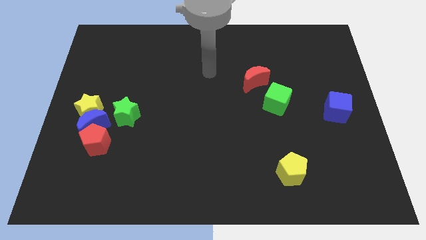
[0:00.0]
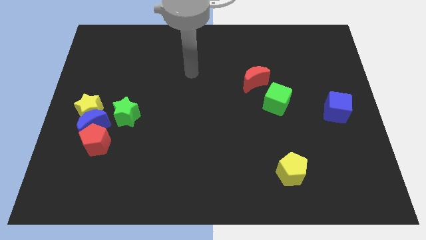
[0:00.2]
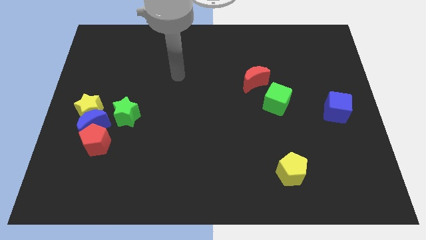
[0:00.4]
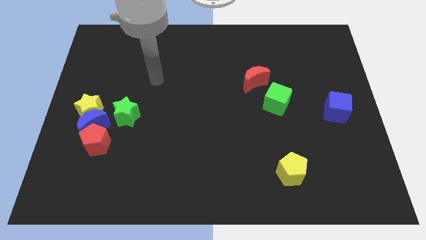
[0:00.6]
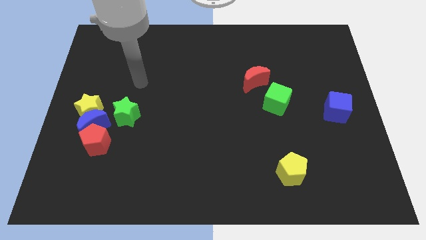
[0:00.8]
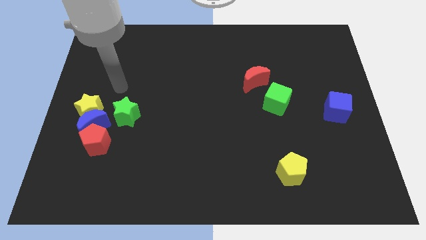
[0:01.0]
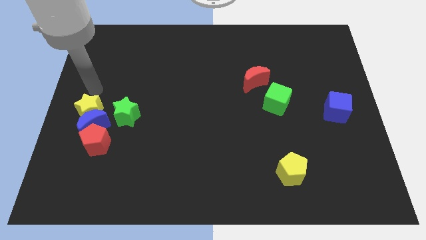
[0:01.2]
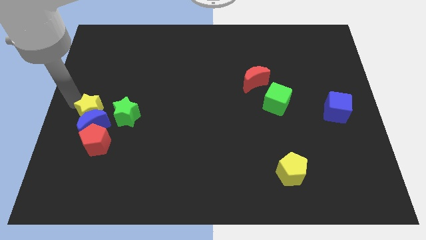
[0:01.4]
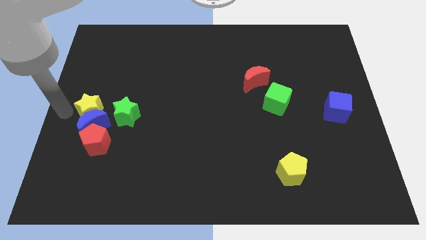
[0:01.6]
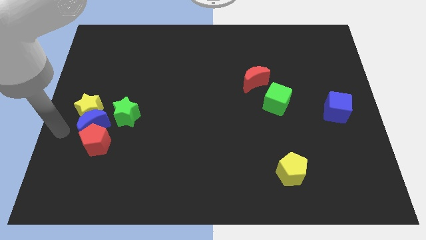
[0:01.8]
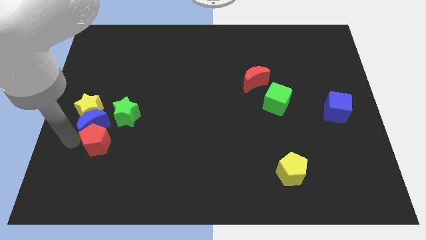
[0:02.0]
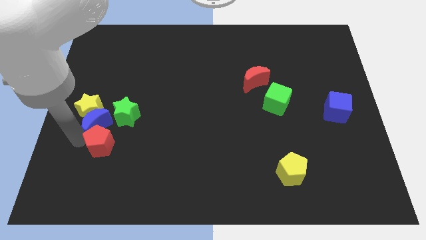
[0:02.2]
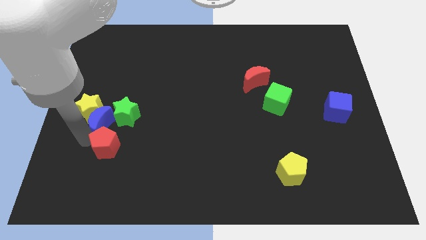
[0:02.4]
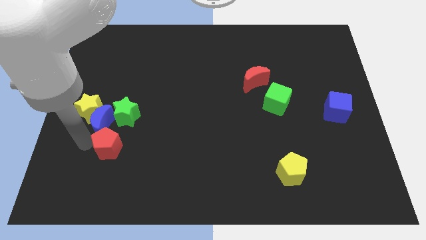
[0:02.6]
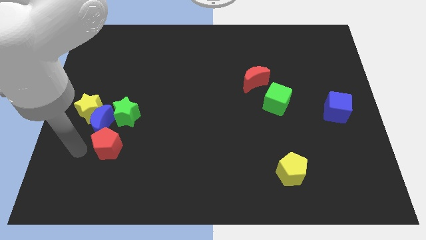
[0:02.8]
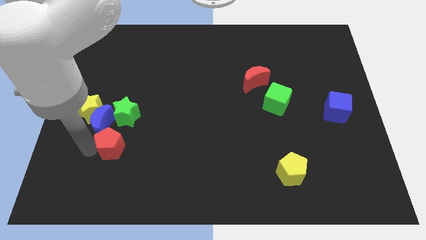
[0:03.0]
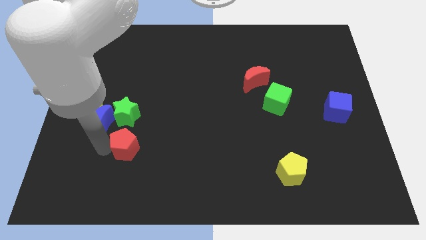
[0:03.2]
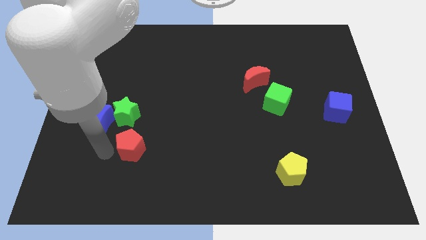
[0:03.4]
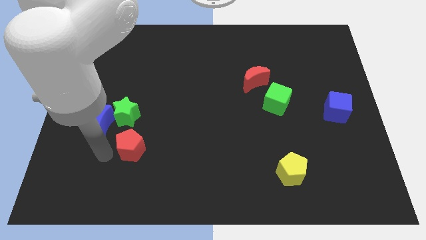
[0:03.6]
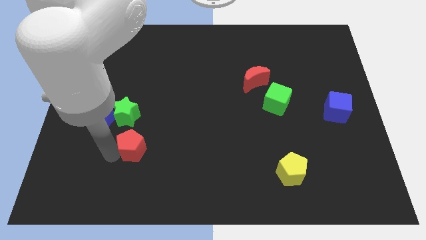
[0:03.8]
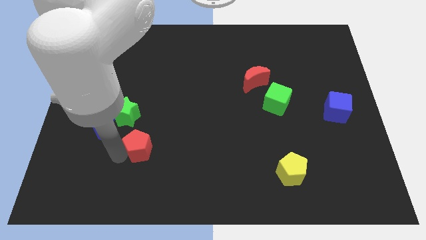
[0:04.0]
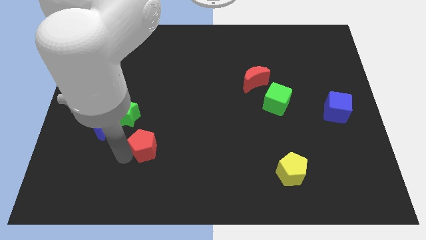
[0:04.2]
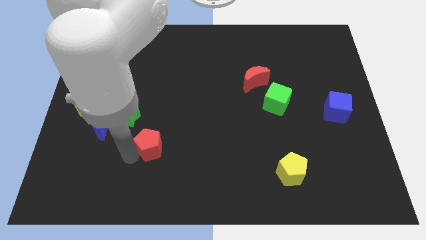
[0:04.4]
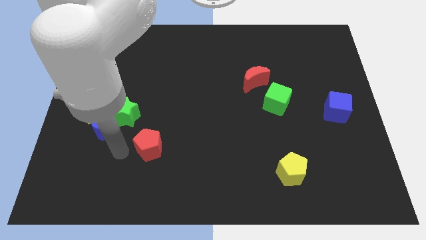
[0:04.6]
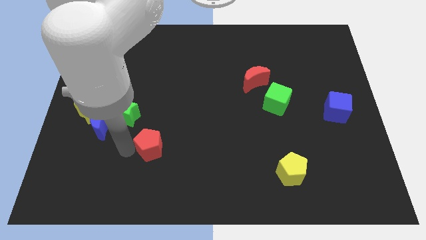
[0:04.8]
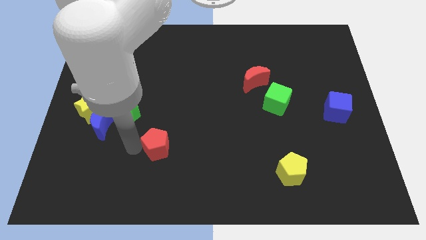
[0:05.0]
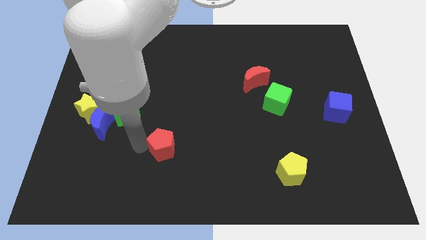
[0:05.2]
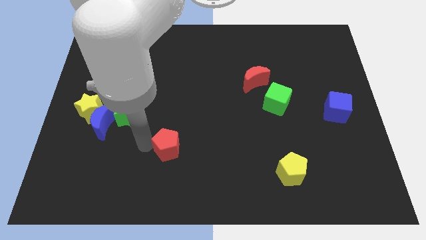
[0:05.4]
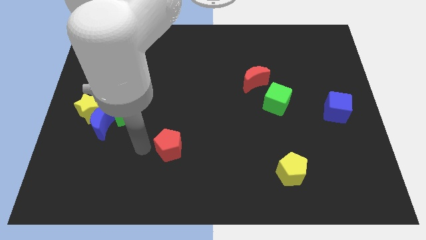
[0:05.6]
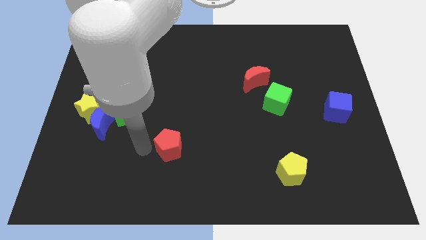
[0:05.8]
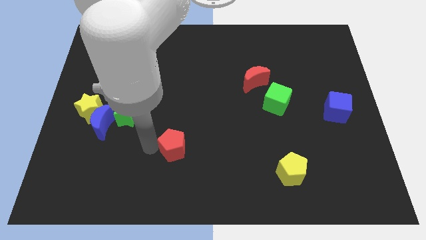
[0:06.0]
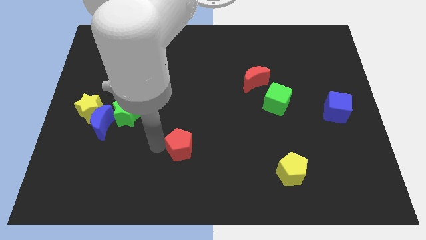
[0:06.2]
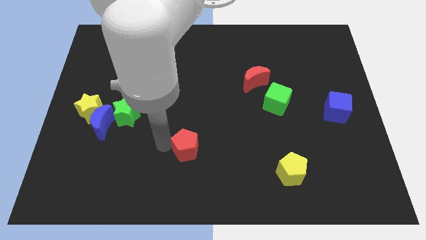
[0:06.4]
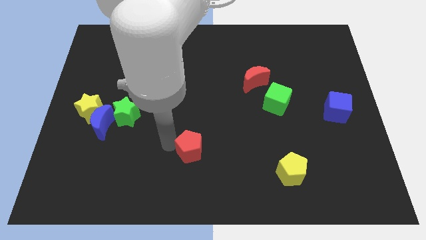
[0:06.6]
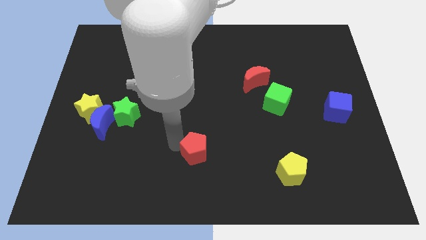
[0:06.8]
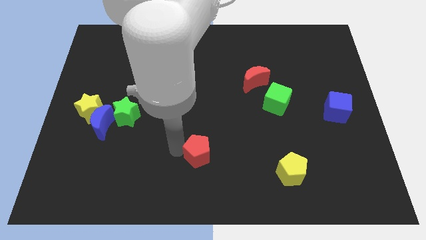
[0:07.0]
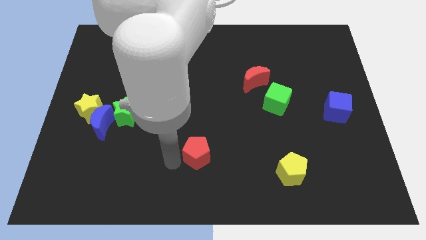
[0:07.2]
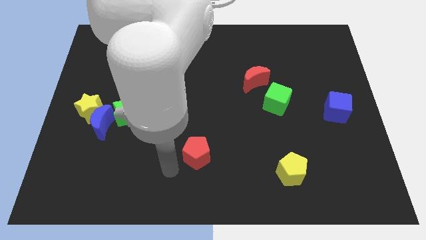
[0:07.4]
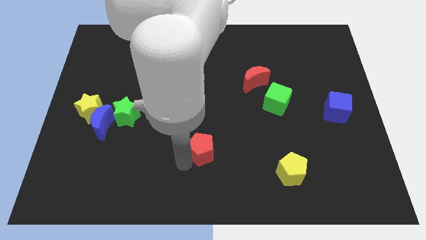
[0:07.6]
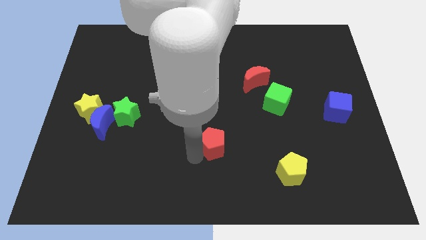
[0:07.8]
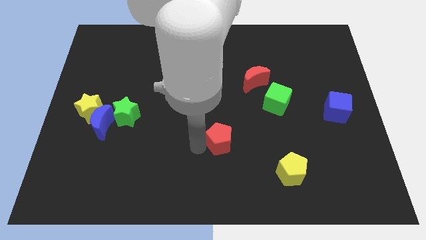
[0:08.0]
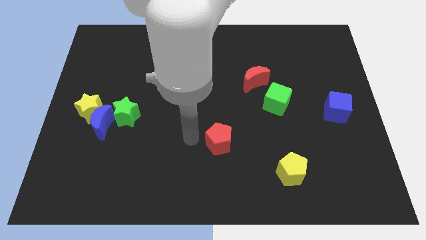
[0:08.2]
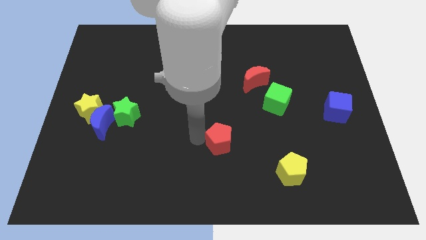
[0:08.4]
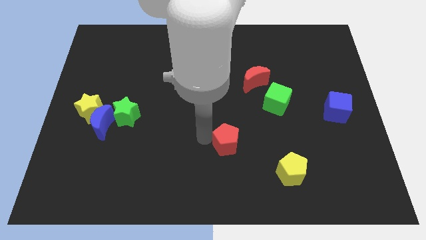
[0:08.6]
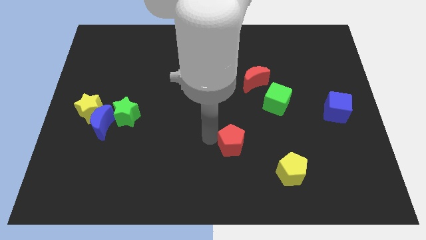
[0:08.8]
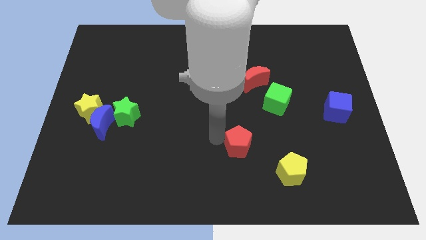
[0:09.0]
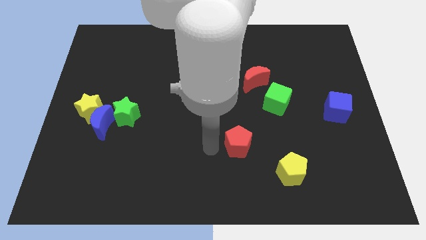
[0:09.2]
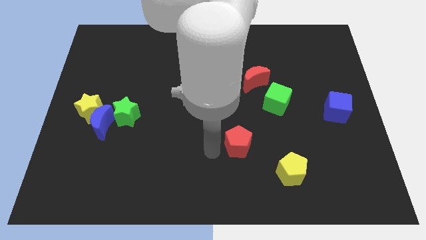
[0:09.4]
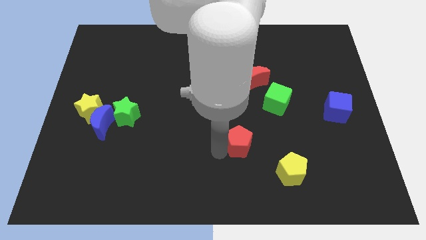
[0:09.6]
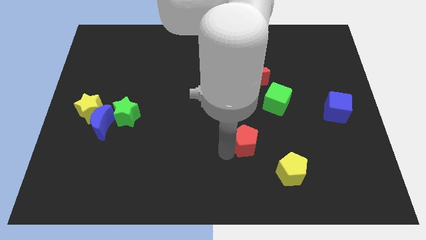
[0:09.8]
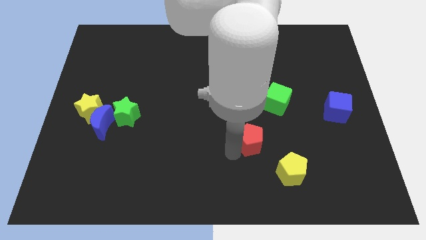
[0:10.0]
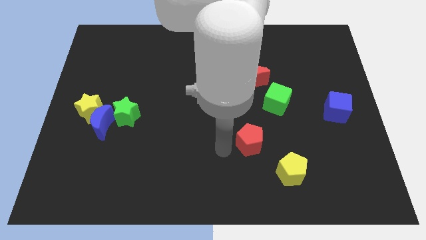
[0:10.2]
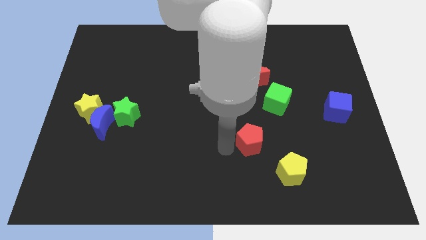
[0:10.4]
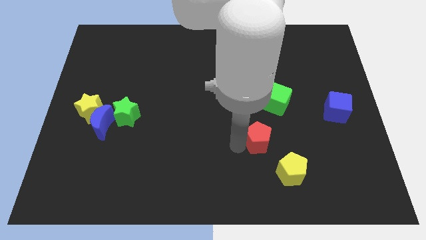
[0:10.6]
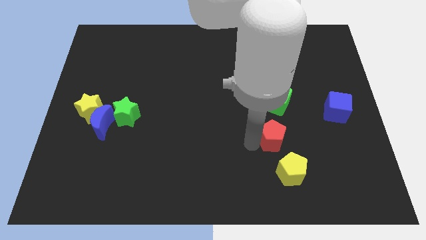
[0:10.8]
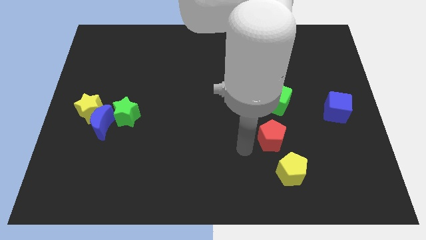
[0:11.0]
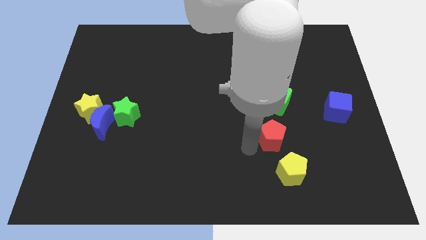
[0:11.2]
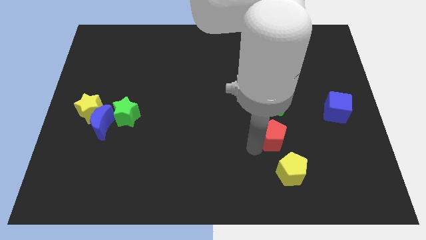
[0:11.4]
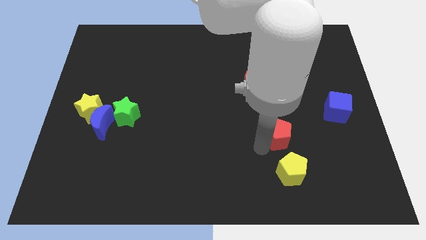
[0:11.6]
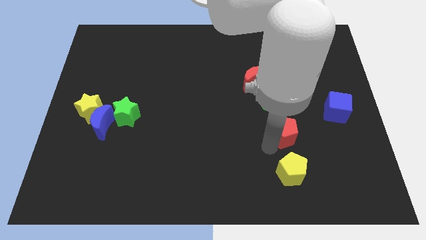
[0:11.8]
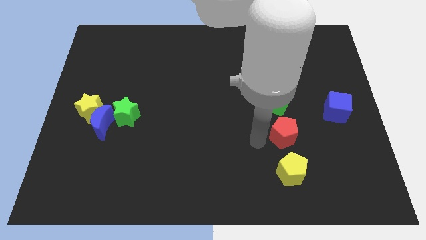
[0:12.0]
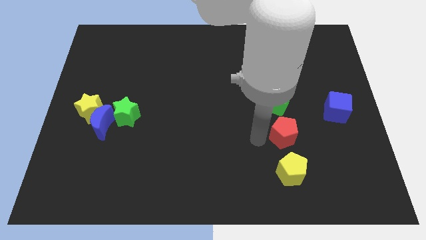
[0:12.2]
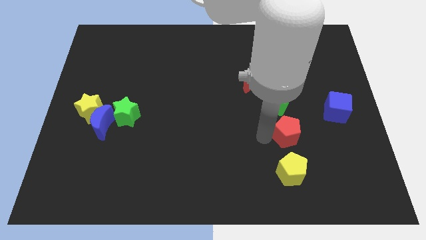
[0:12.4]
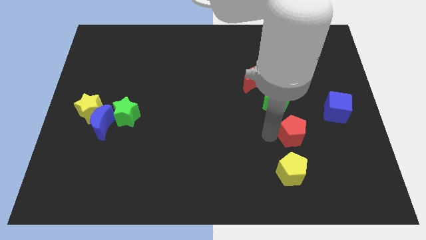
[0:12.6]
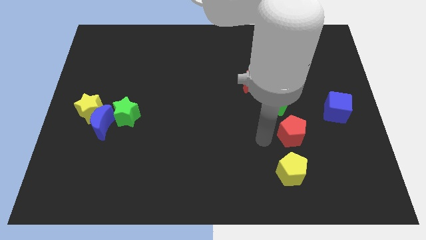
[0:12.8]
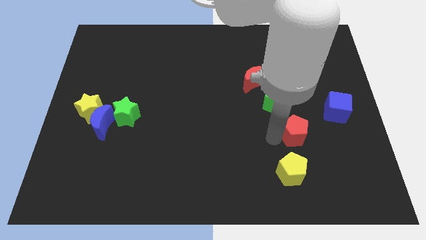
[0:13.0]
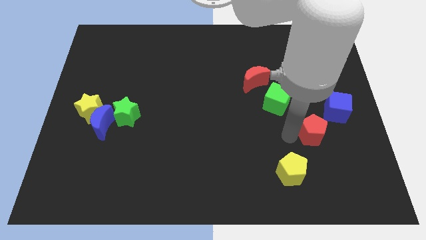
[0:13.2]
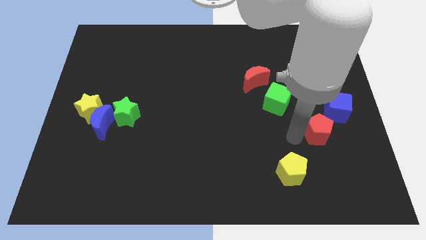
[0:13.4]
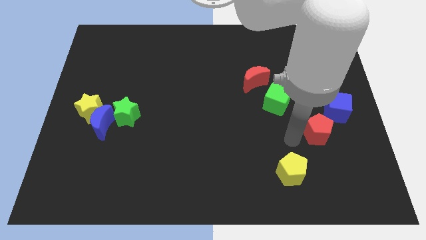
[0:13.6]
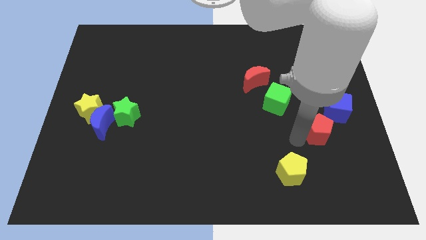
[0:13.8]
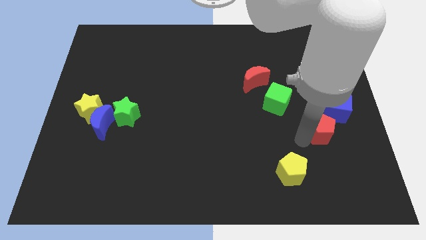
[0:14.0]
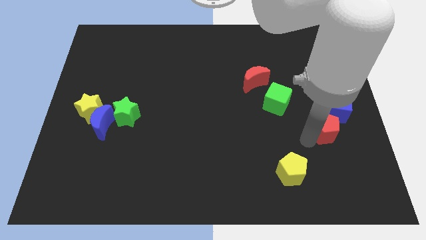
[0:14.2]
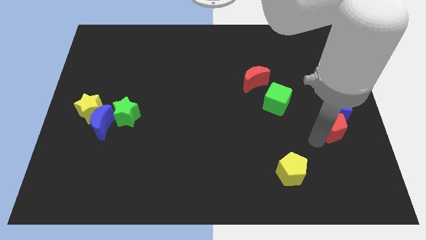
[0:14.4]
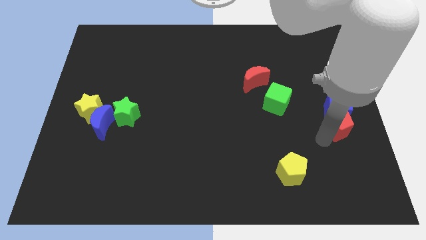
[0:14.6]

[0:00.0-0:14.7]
slide the red pentagon to the right side of the board
